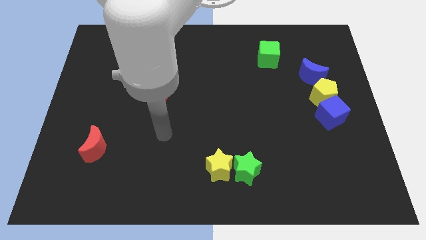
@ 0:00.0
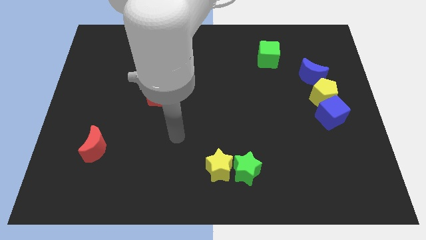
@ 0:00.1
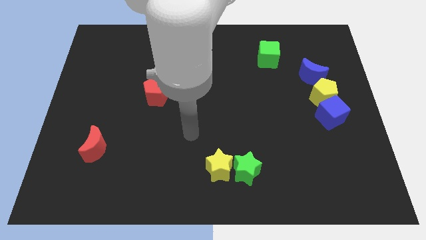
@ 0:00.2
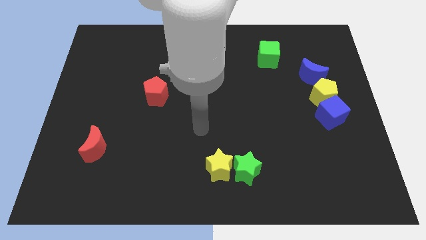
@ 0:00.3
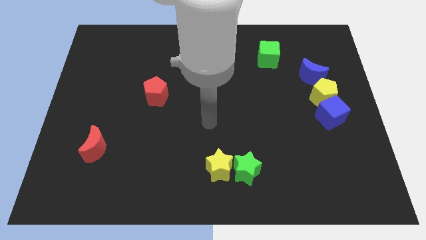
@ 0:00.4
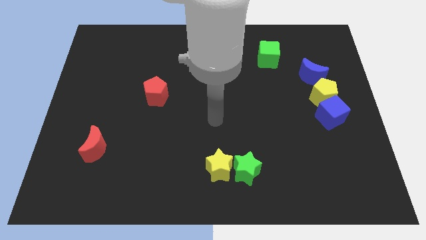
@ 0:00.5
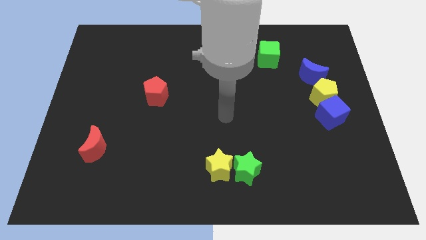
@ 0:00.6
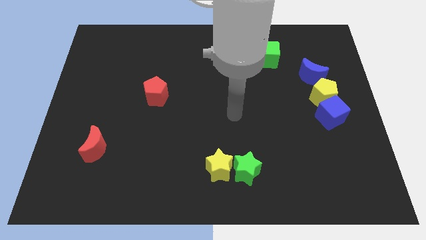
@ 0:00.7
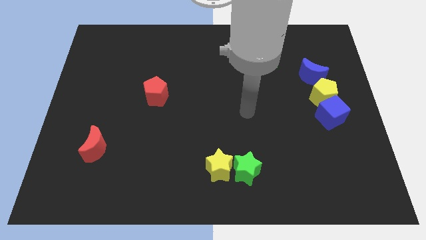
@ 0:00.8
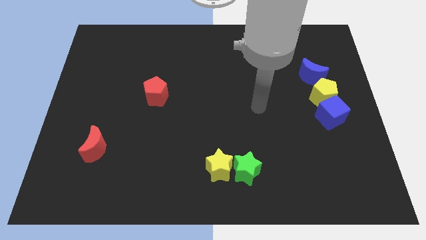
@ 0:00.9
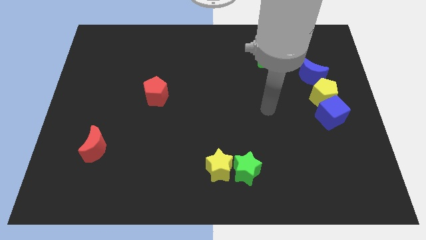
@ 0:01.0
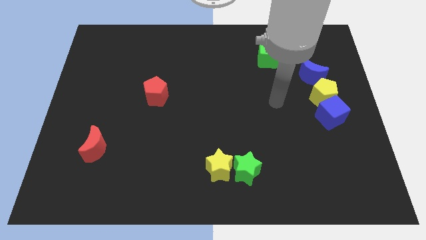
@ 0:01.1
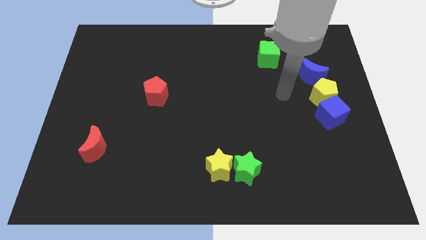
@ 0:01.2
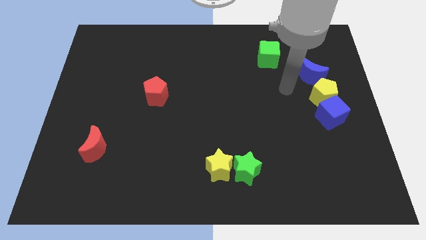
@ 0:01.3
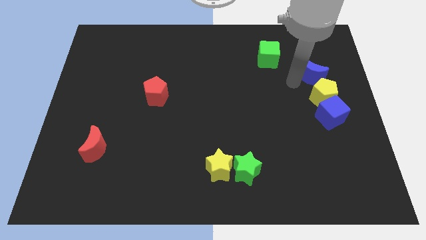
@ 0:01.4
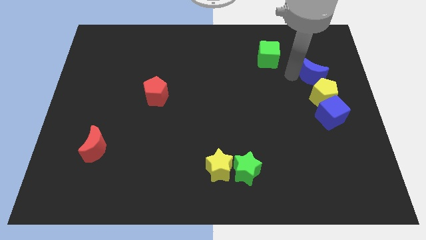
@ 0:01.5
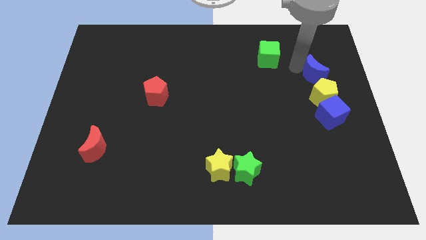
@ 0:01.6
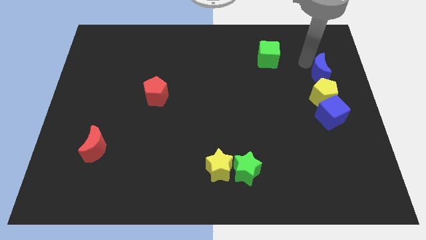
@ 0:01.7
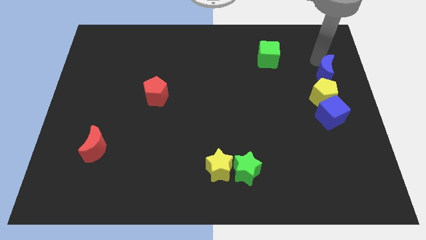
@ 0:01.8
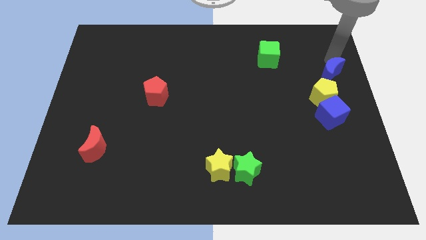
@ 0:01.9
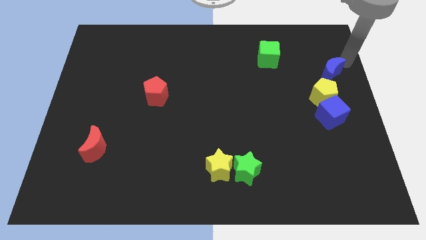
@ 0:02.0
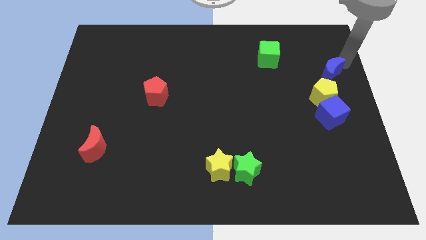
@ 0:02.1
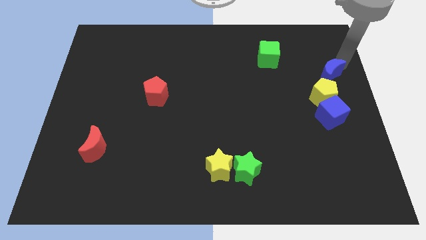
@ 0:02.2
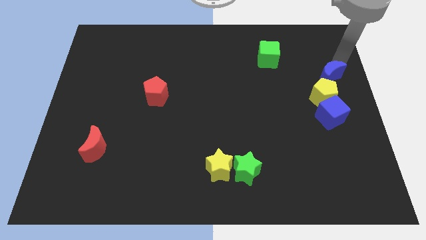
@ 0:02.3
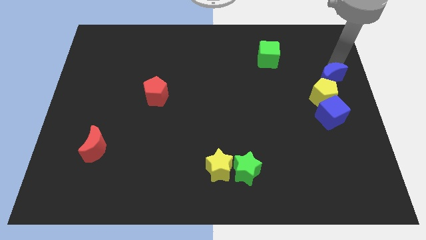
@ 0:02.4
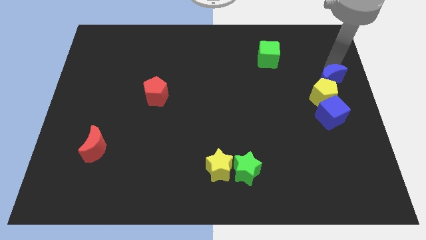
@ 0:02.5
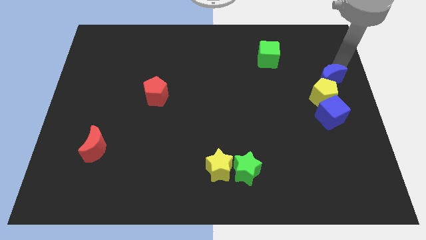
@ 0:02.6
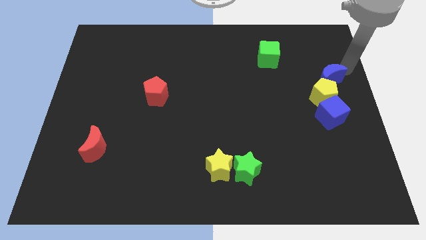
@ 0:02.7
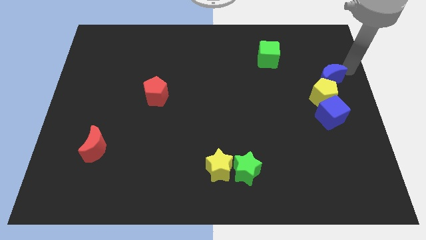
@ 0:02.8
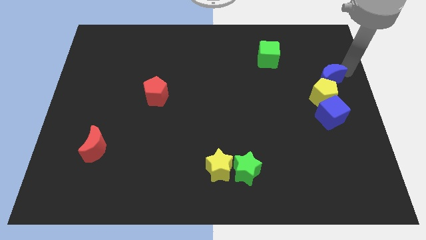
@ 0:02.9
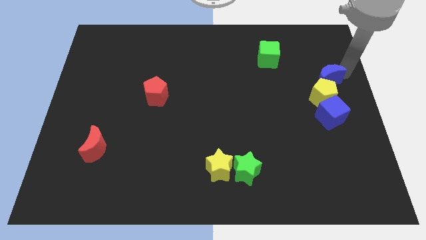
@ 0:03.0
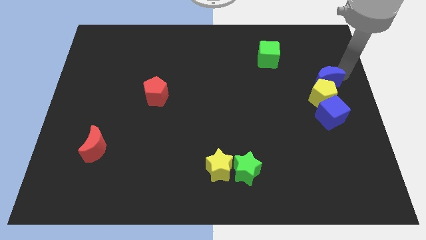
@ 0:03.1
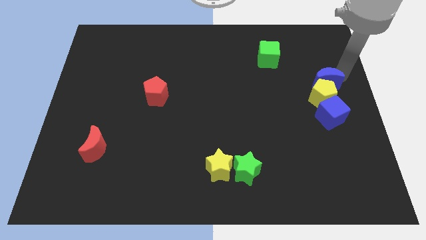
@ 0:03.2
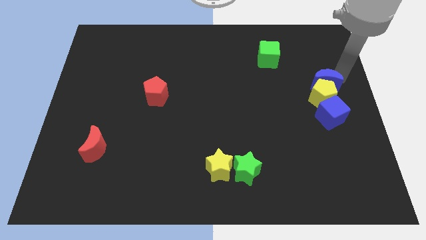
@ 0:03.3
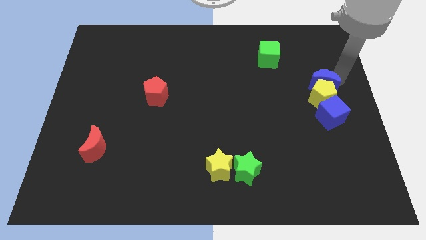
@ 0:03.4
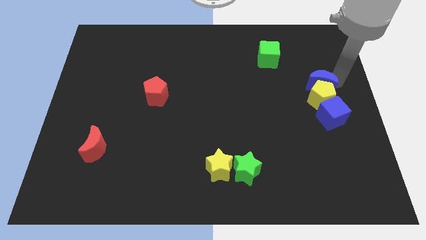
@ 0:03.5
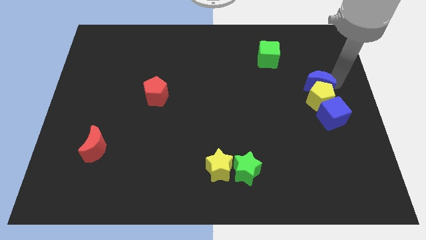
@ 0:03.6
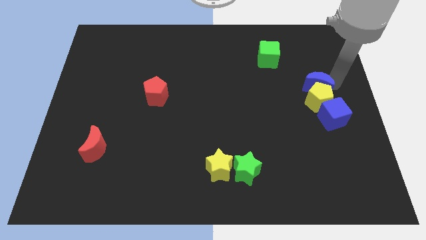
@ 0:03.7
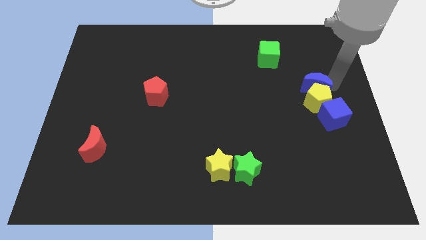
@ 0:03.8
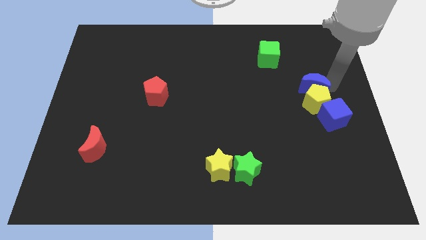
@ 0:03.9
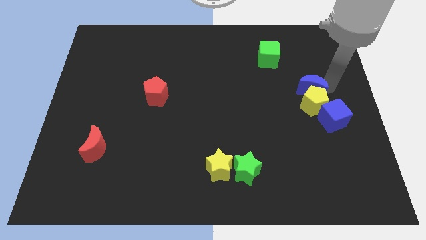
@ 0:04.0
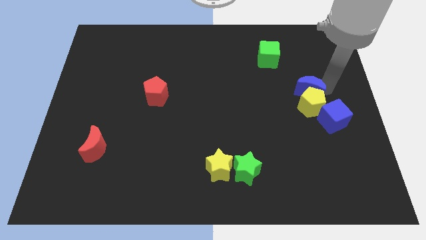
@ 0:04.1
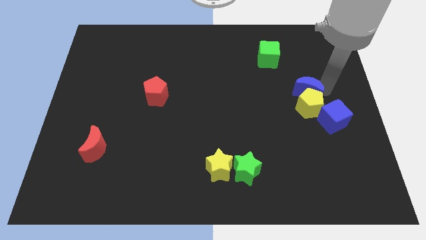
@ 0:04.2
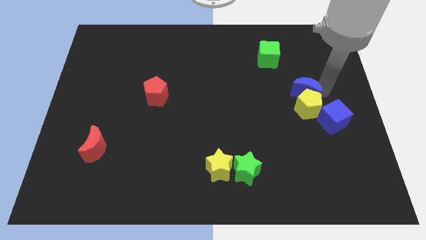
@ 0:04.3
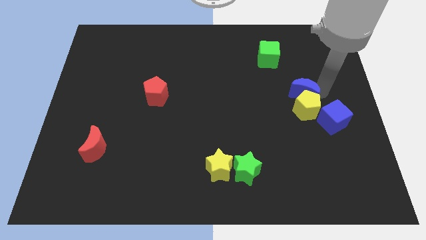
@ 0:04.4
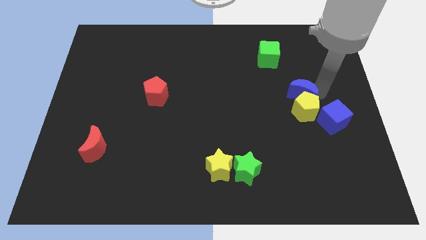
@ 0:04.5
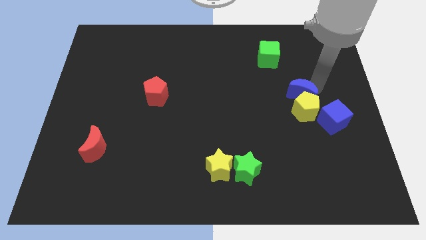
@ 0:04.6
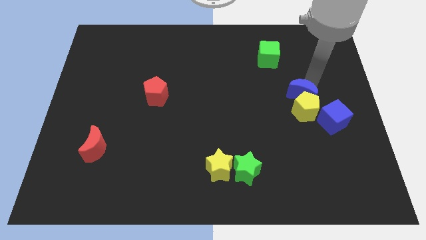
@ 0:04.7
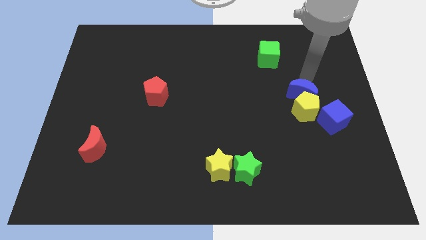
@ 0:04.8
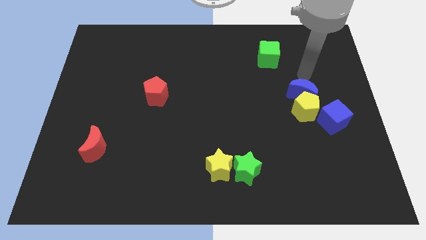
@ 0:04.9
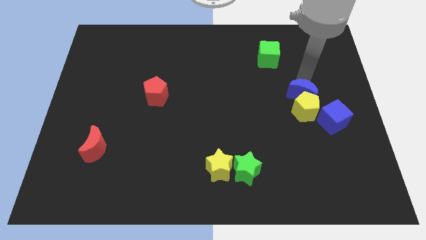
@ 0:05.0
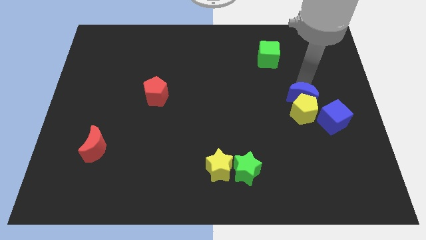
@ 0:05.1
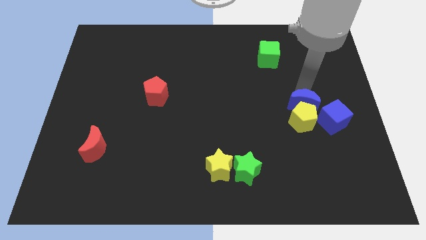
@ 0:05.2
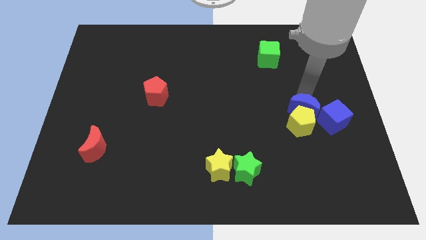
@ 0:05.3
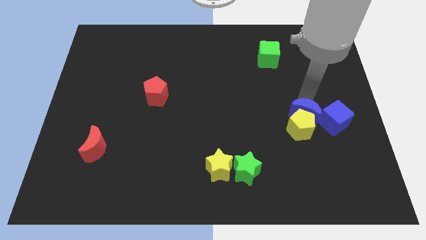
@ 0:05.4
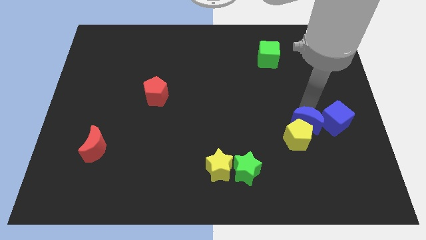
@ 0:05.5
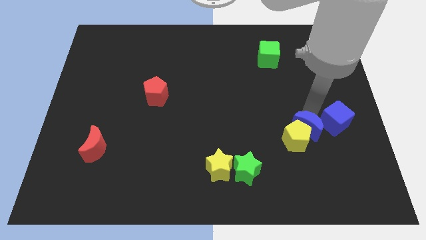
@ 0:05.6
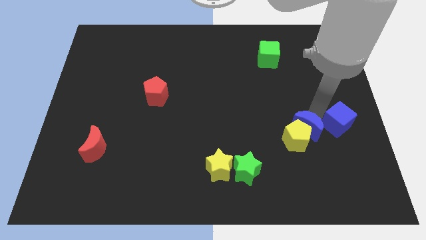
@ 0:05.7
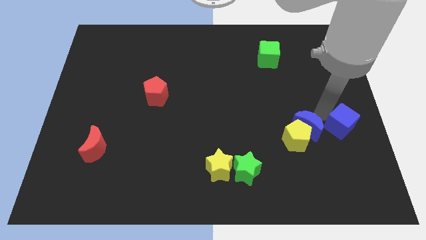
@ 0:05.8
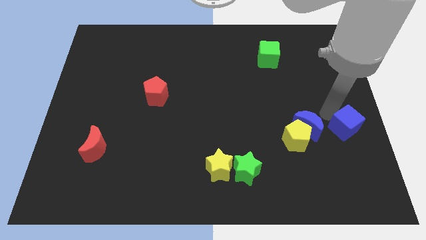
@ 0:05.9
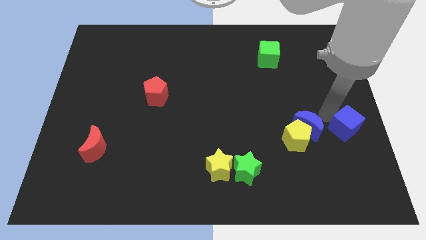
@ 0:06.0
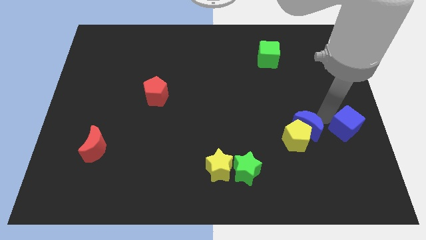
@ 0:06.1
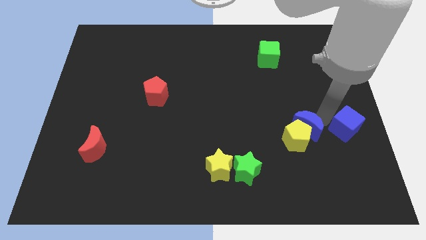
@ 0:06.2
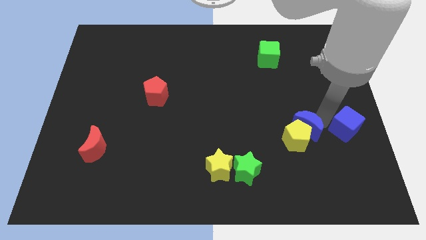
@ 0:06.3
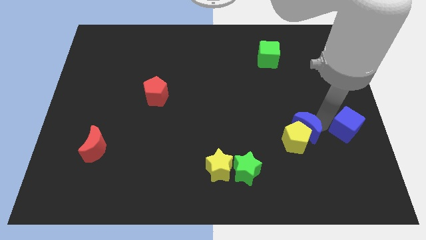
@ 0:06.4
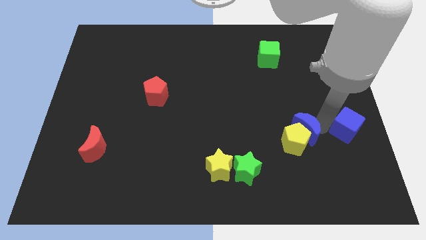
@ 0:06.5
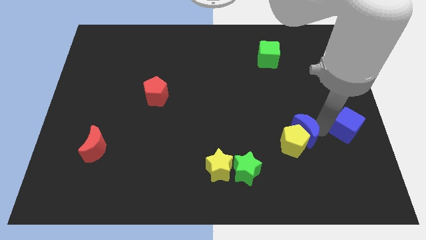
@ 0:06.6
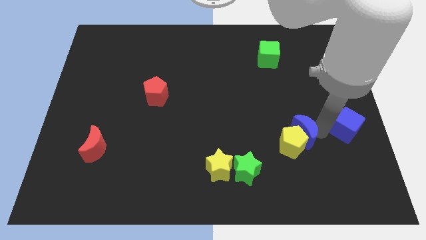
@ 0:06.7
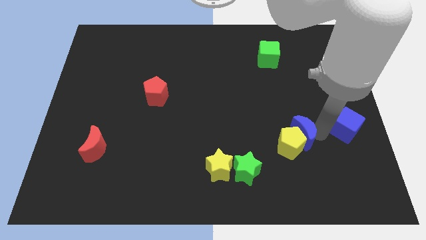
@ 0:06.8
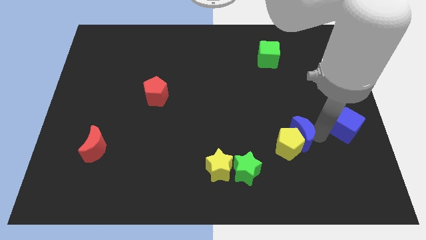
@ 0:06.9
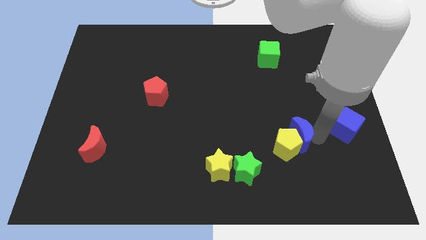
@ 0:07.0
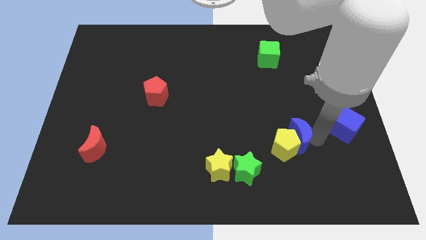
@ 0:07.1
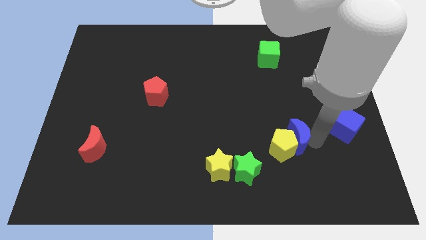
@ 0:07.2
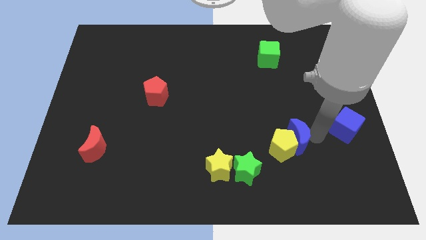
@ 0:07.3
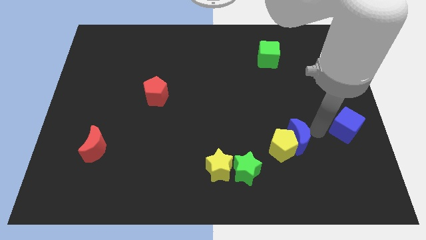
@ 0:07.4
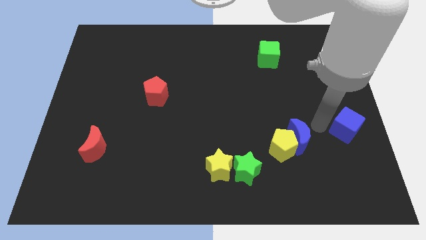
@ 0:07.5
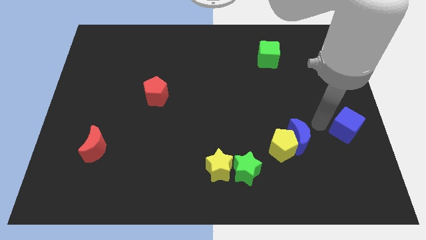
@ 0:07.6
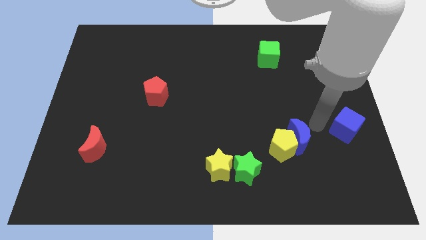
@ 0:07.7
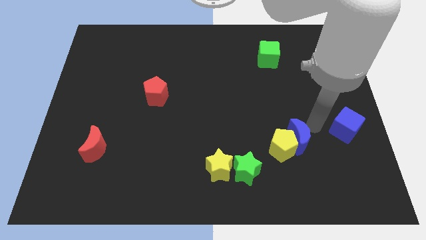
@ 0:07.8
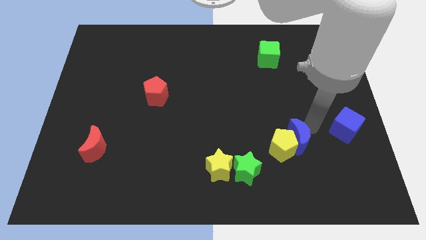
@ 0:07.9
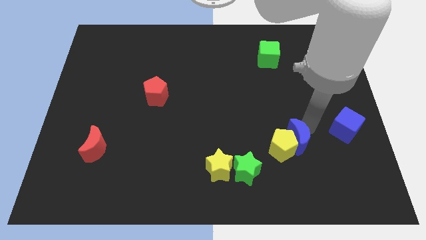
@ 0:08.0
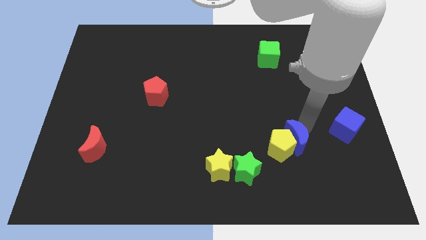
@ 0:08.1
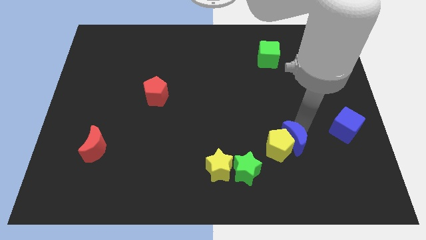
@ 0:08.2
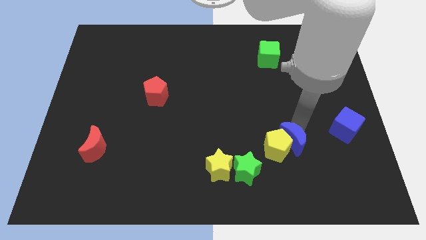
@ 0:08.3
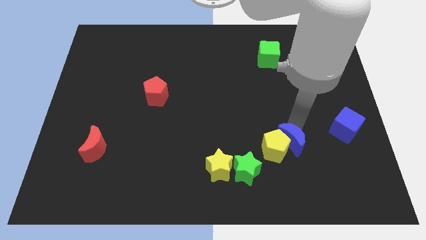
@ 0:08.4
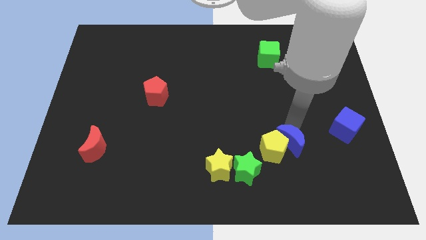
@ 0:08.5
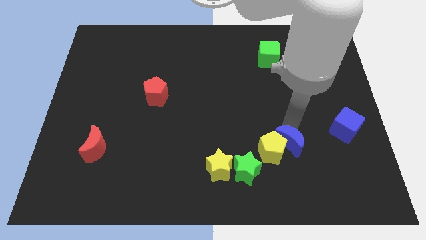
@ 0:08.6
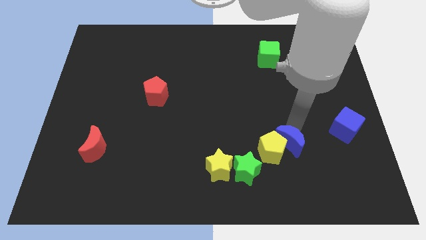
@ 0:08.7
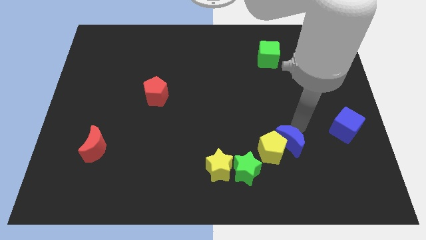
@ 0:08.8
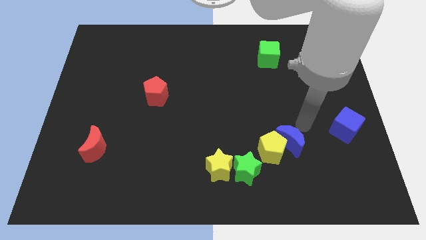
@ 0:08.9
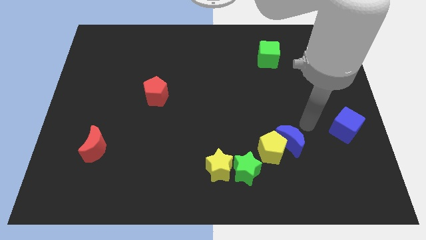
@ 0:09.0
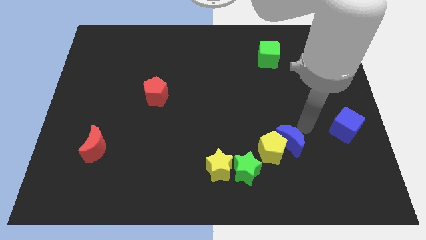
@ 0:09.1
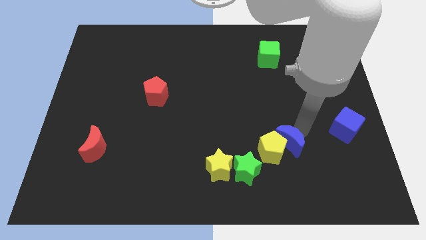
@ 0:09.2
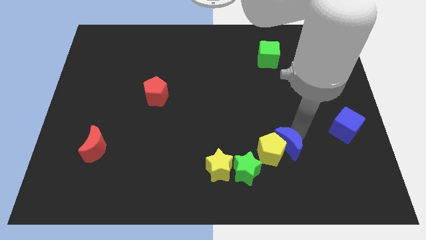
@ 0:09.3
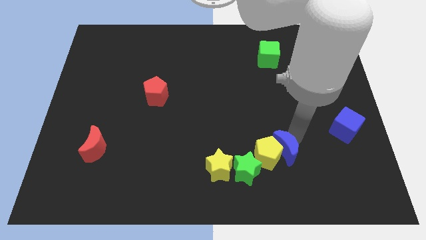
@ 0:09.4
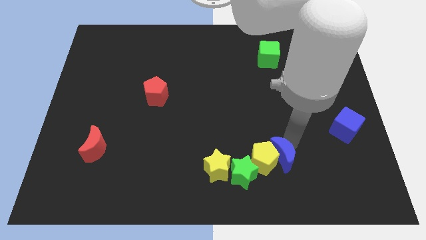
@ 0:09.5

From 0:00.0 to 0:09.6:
put the blue moon to the right side of the yellow star
